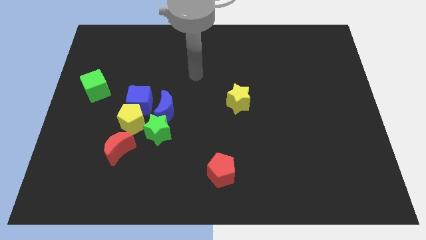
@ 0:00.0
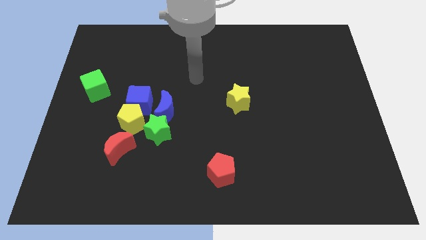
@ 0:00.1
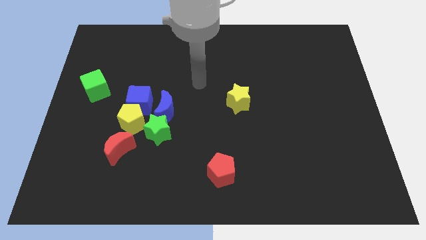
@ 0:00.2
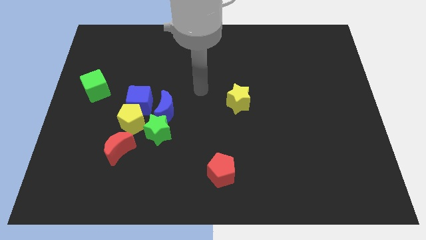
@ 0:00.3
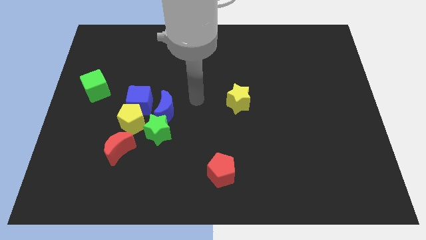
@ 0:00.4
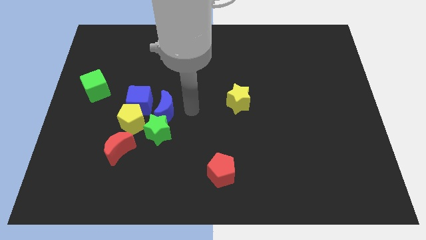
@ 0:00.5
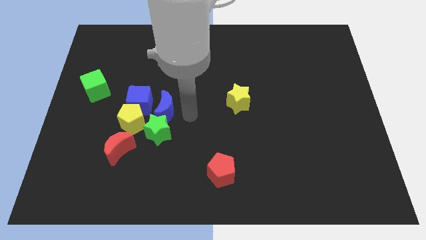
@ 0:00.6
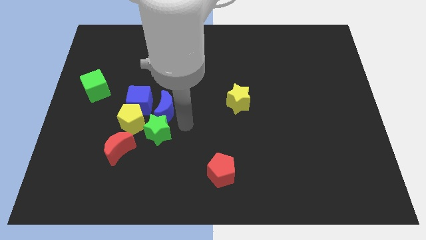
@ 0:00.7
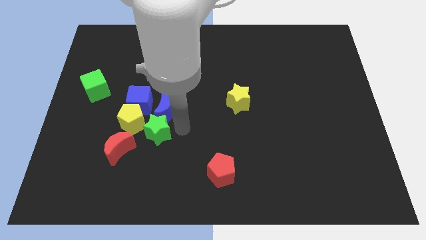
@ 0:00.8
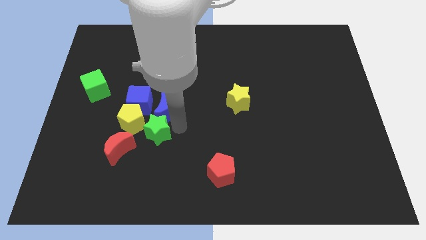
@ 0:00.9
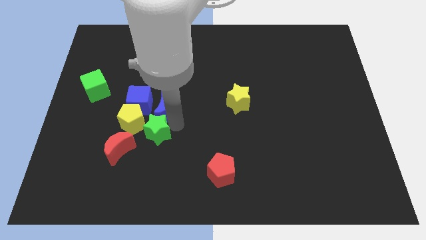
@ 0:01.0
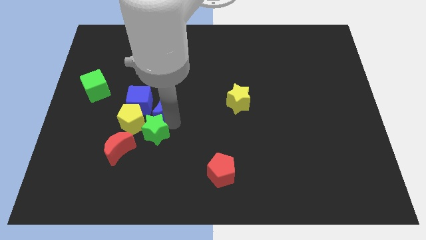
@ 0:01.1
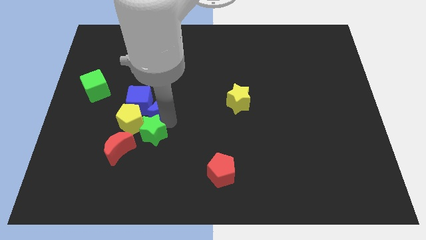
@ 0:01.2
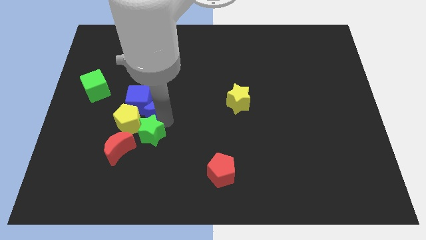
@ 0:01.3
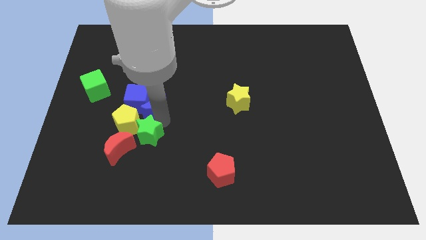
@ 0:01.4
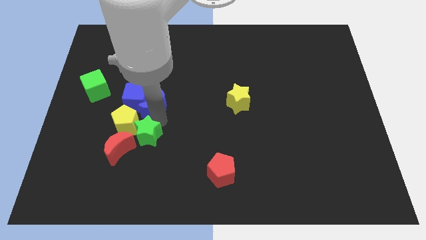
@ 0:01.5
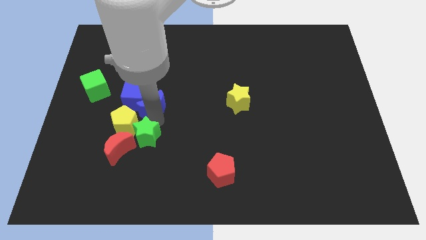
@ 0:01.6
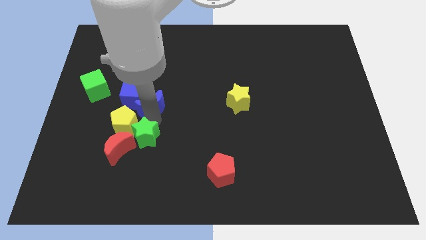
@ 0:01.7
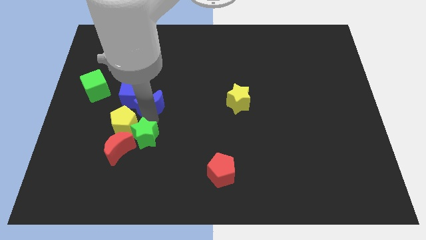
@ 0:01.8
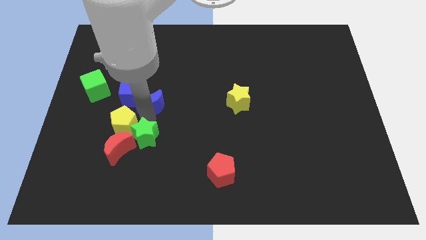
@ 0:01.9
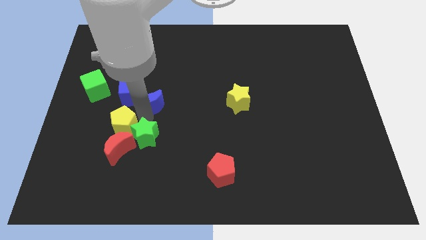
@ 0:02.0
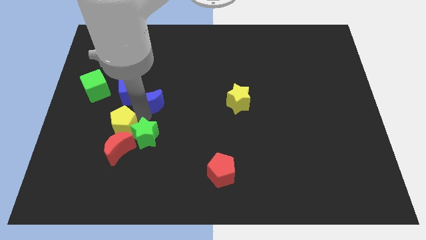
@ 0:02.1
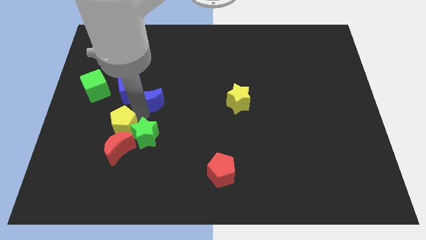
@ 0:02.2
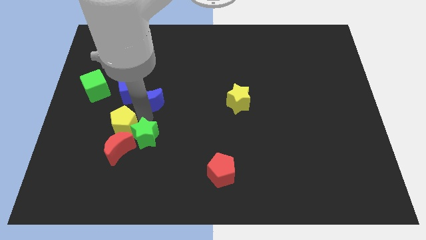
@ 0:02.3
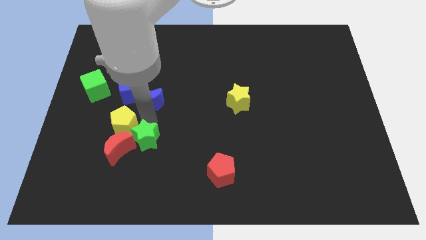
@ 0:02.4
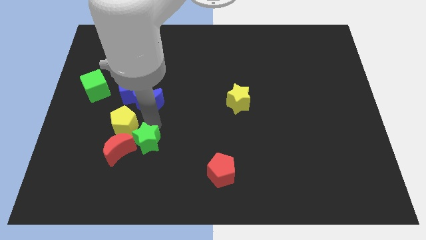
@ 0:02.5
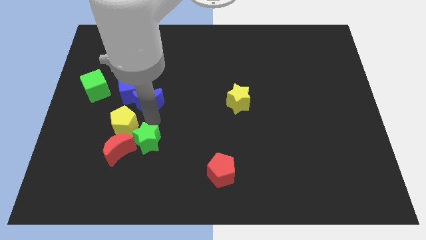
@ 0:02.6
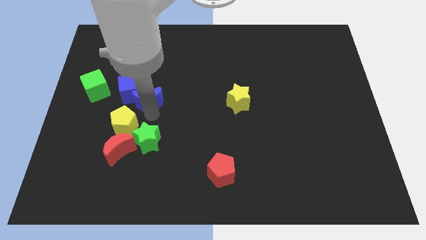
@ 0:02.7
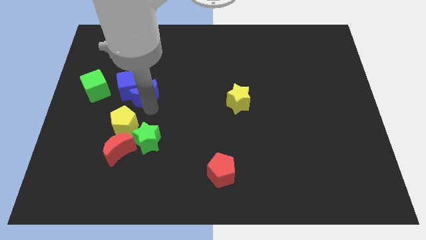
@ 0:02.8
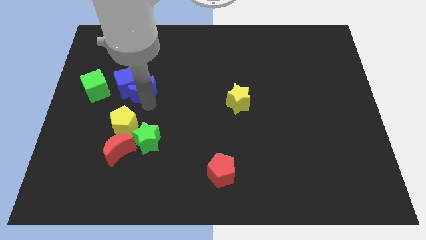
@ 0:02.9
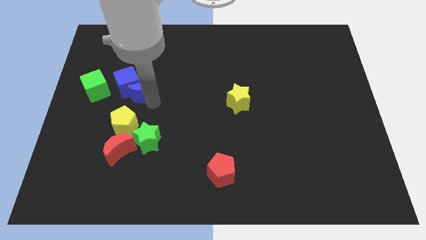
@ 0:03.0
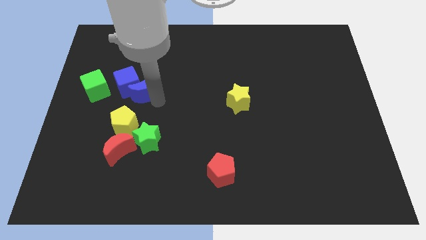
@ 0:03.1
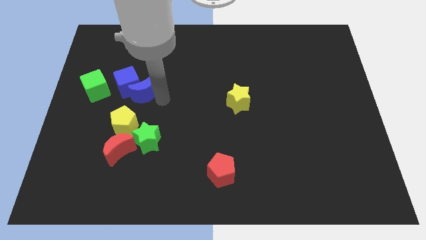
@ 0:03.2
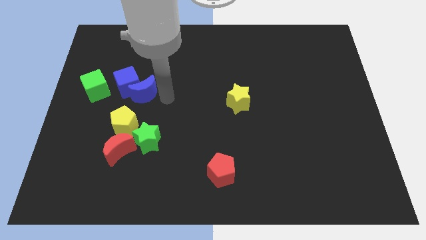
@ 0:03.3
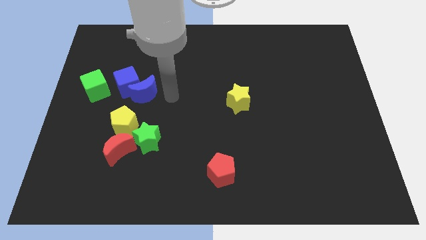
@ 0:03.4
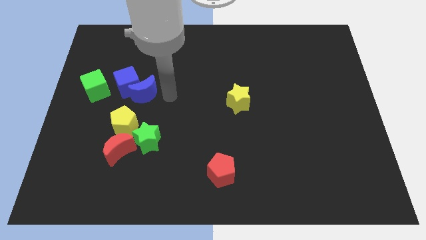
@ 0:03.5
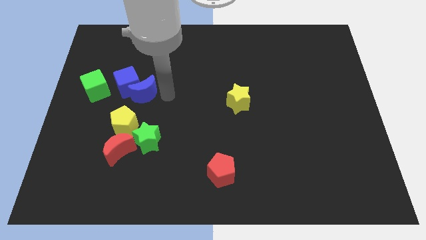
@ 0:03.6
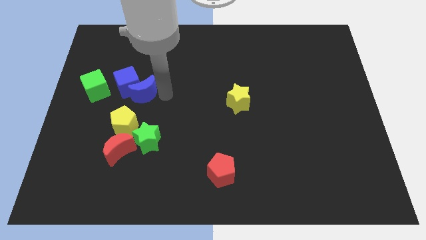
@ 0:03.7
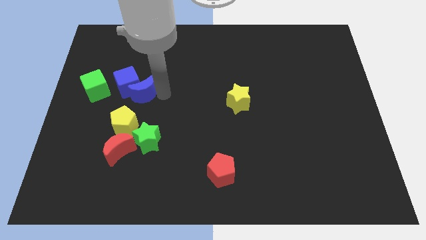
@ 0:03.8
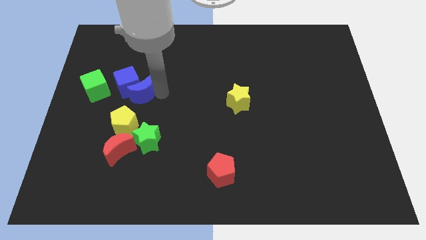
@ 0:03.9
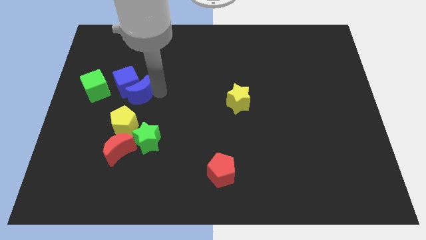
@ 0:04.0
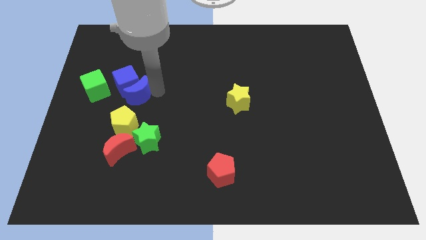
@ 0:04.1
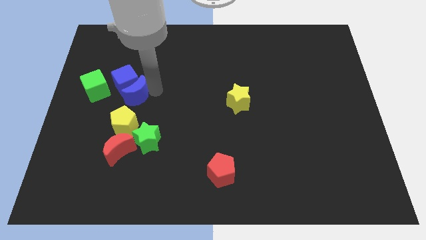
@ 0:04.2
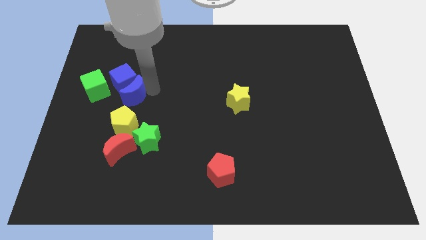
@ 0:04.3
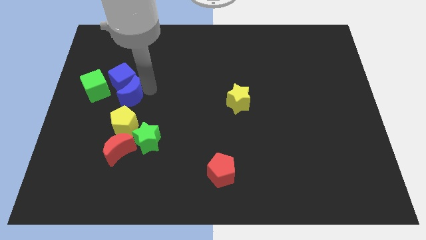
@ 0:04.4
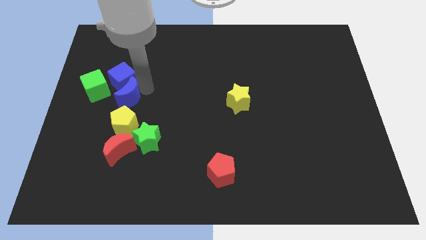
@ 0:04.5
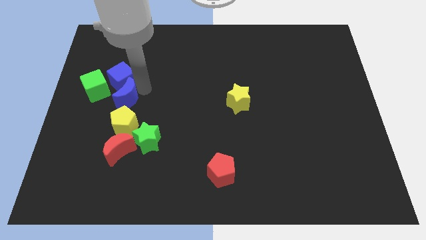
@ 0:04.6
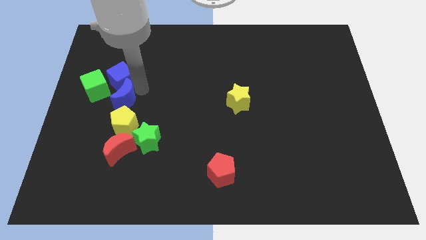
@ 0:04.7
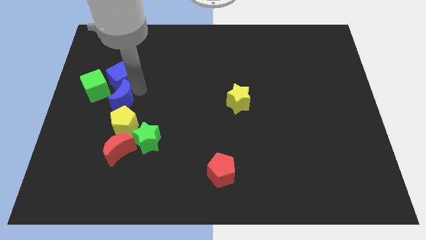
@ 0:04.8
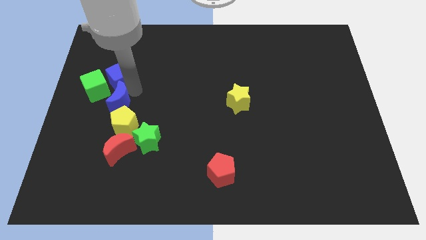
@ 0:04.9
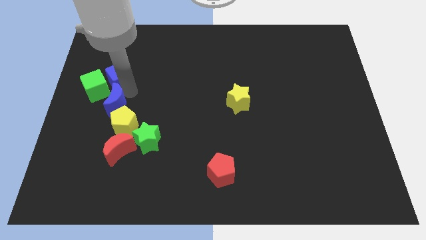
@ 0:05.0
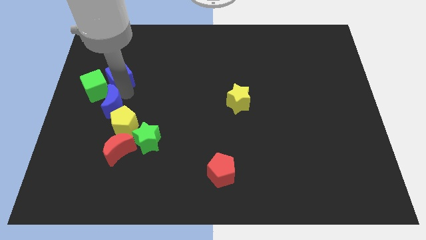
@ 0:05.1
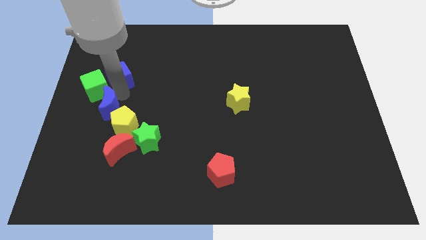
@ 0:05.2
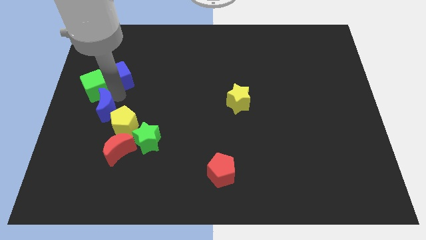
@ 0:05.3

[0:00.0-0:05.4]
put the blue moon left of the yellow pentagon
